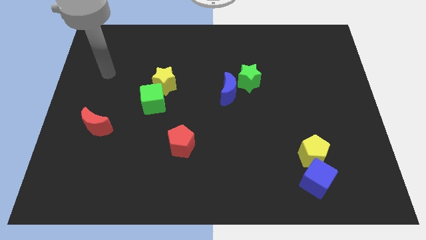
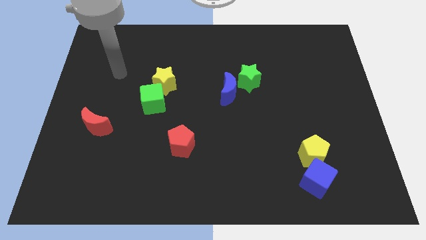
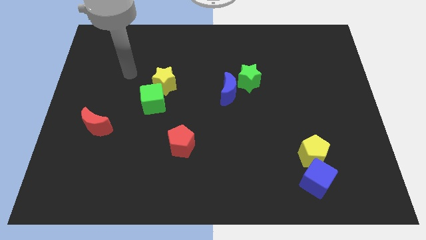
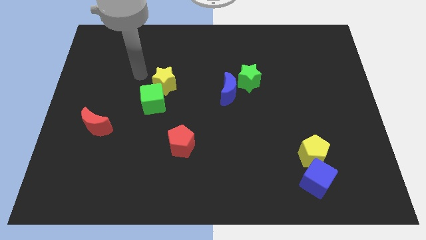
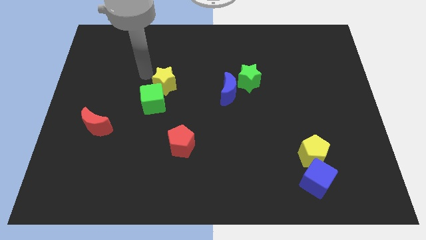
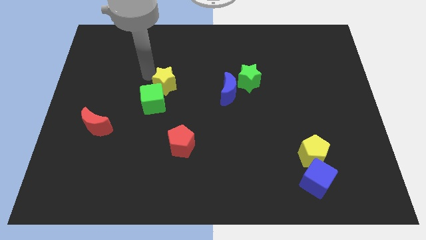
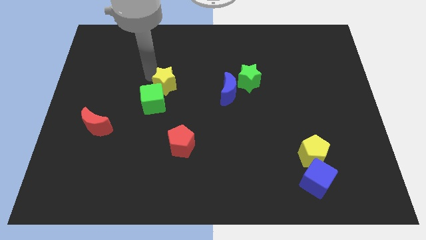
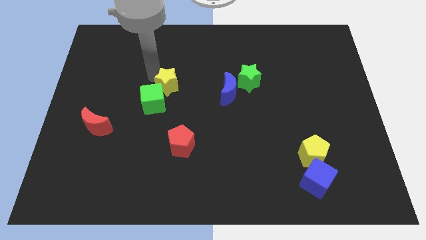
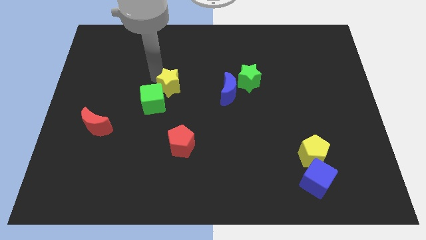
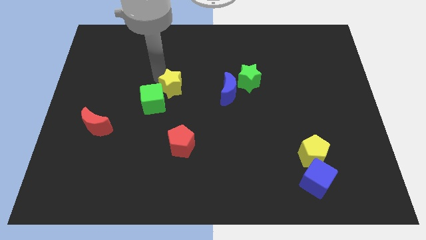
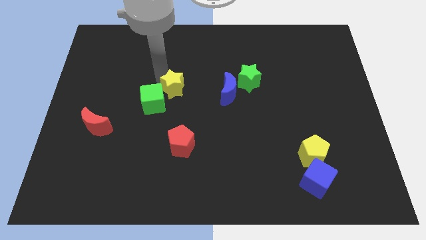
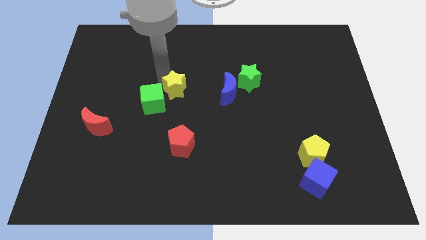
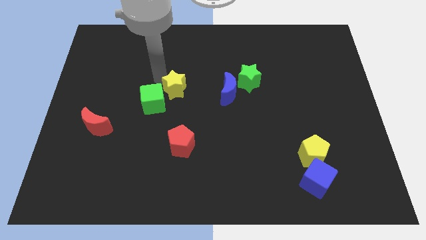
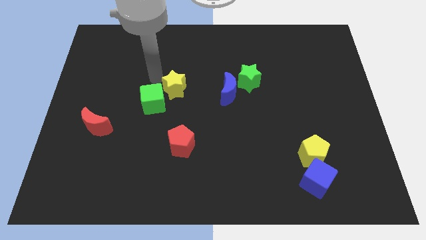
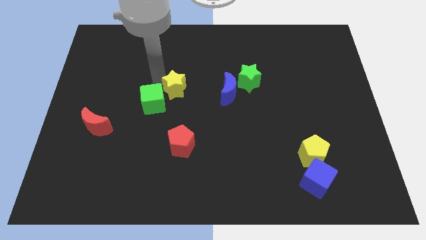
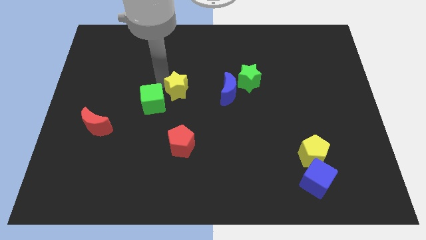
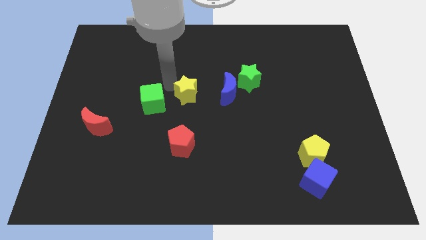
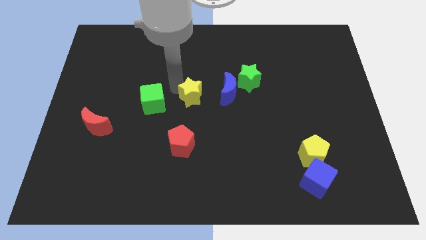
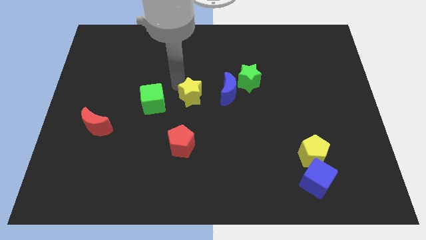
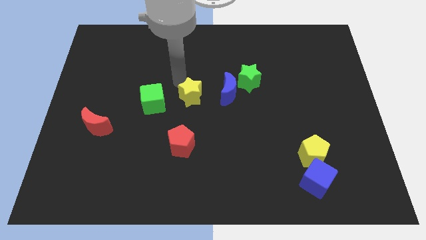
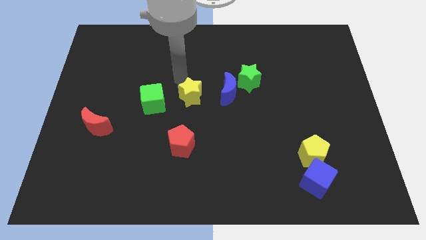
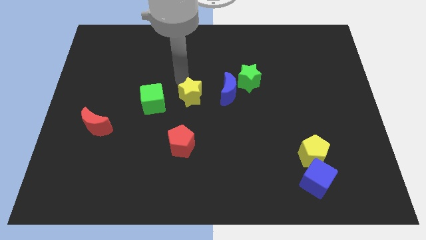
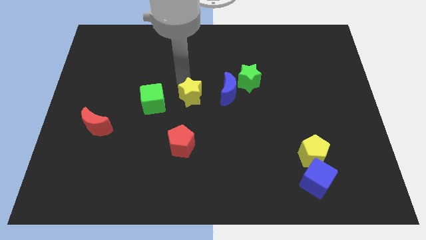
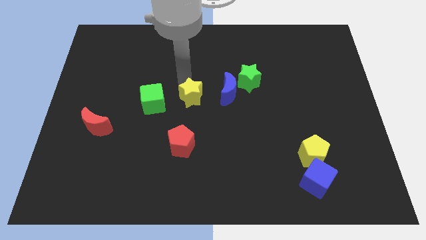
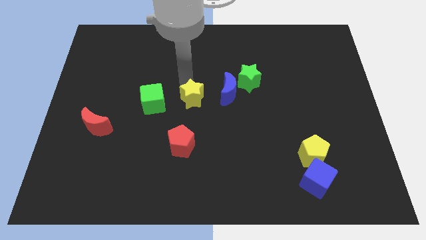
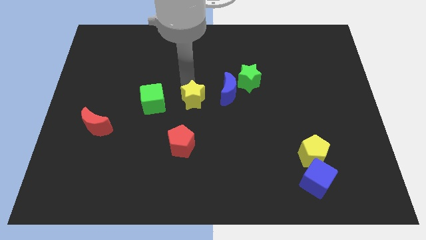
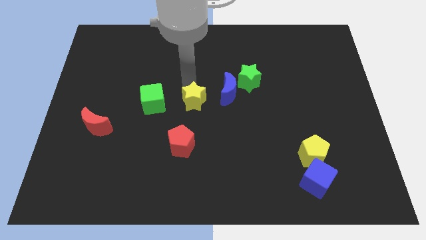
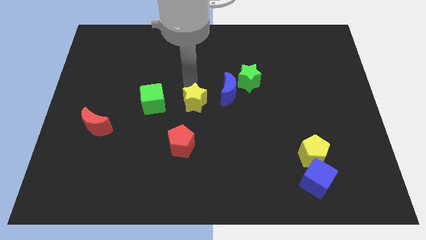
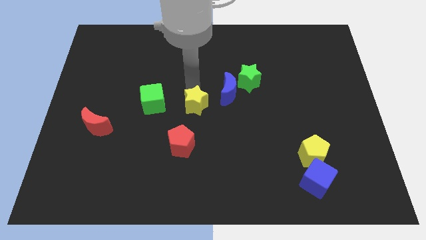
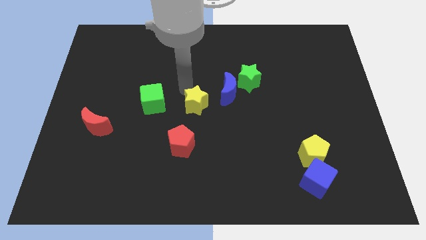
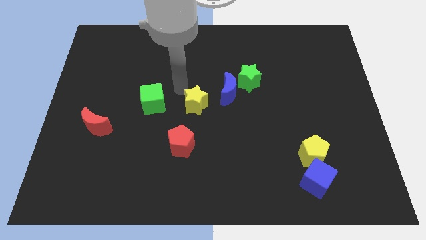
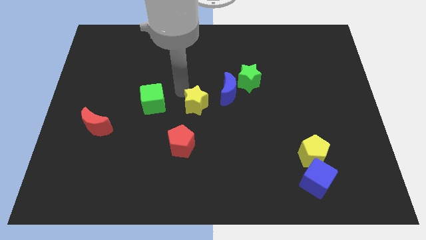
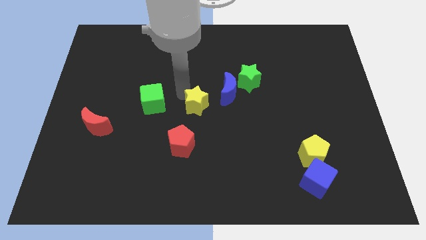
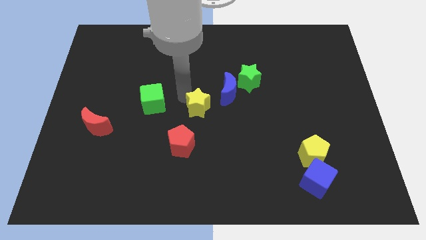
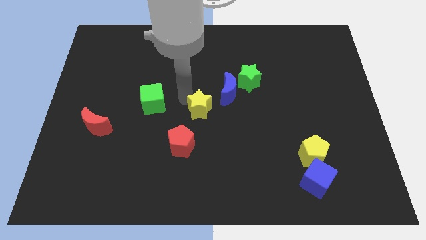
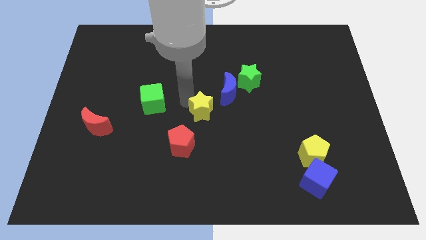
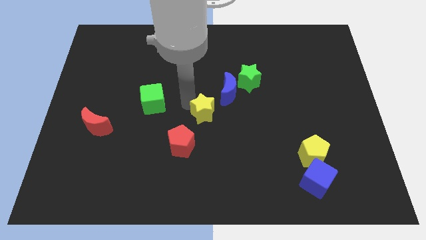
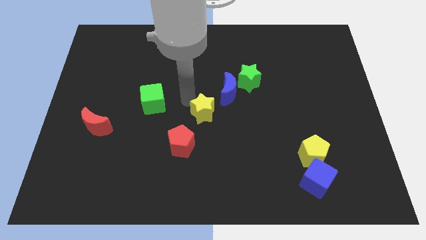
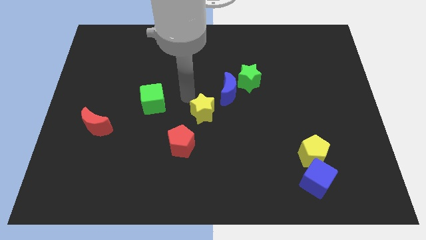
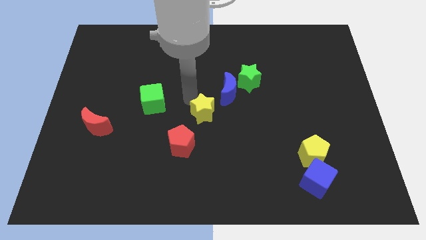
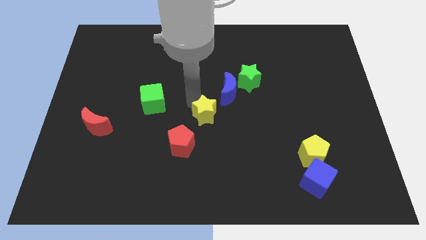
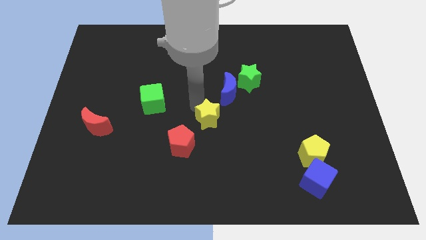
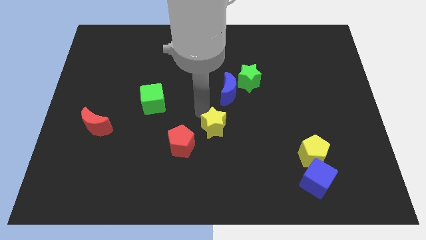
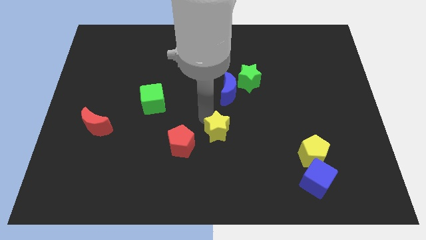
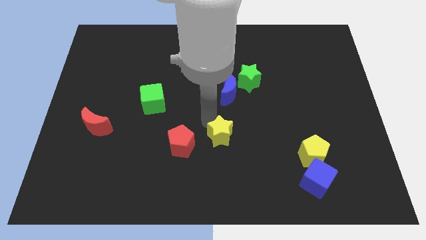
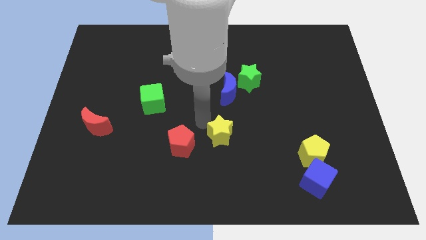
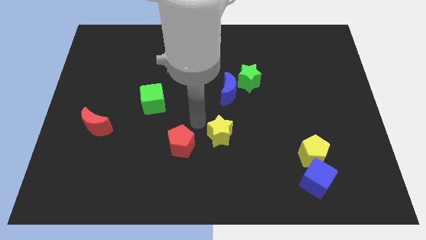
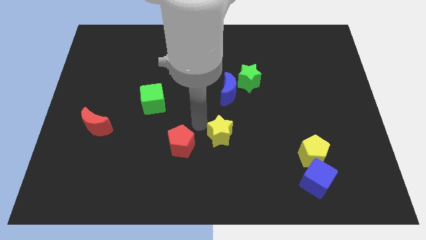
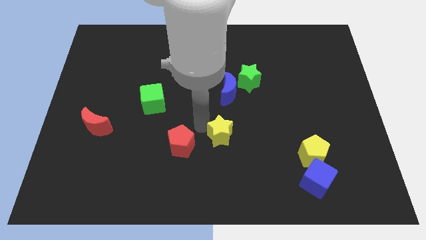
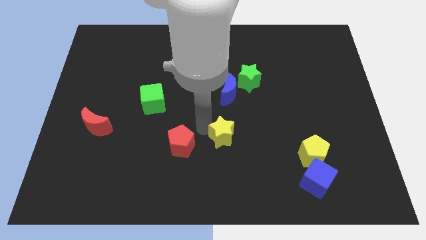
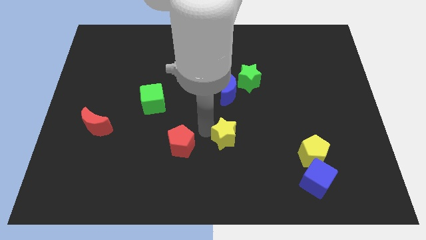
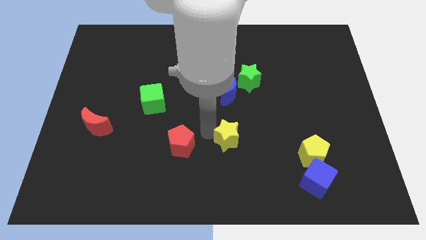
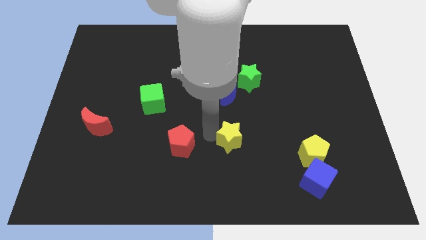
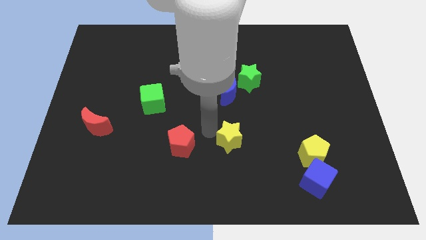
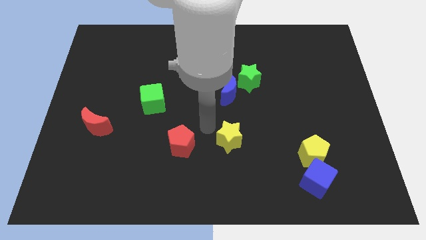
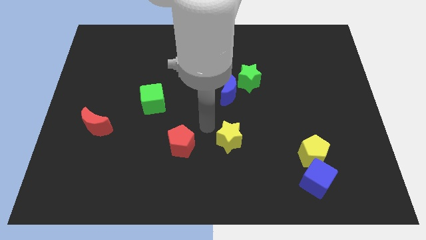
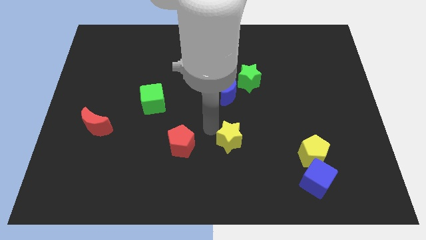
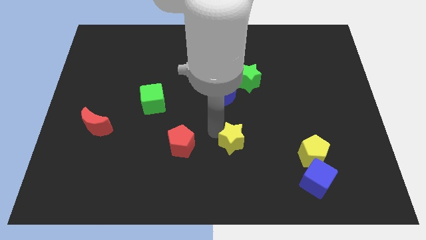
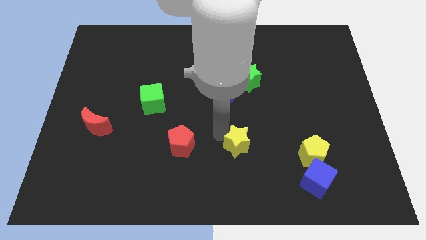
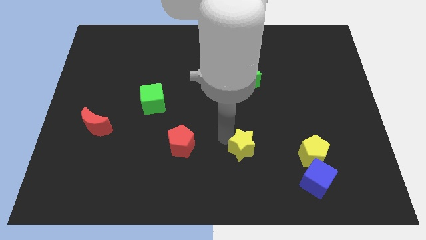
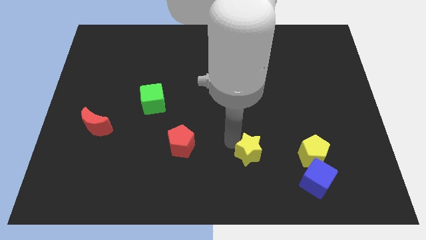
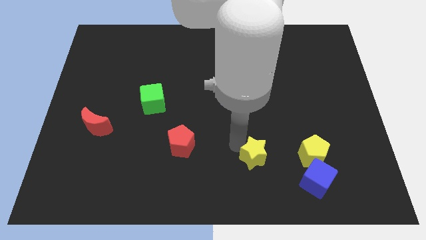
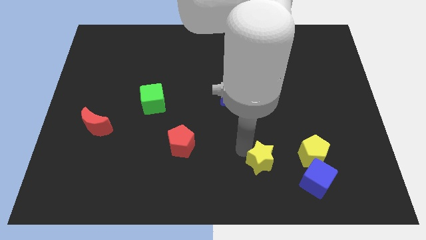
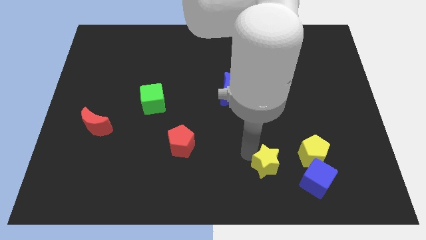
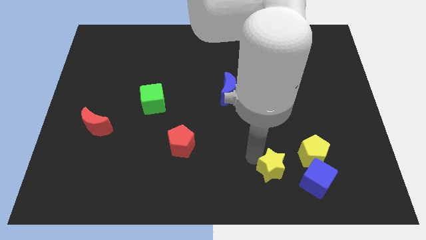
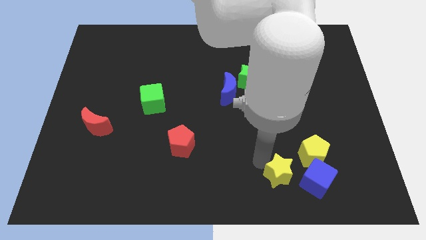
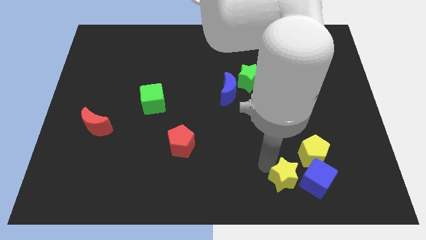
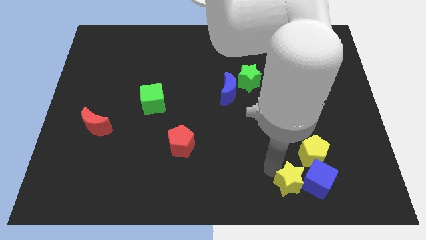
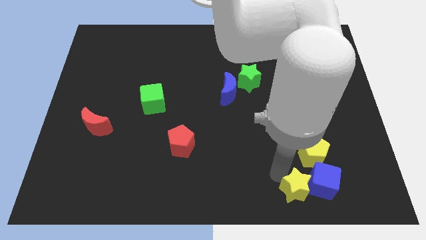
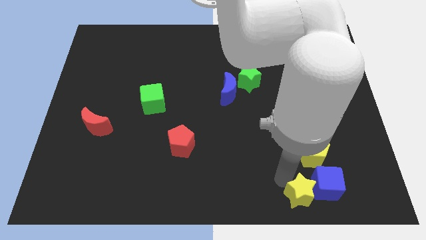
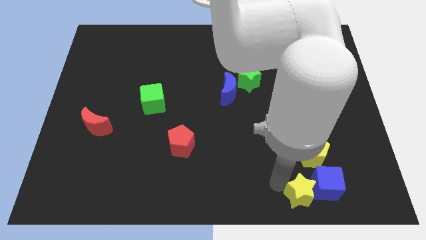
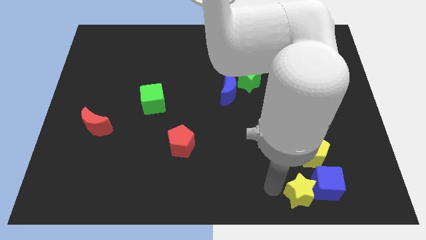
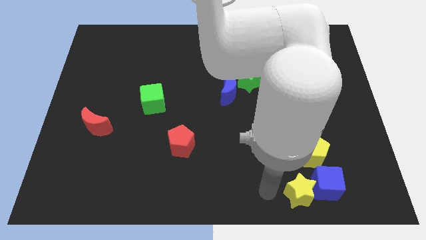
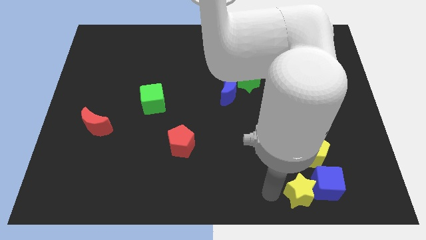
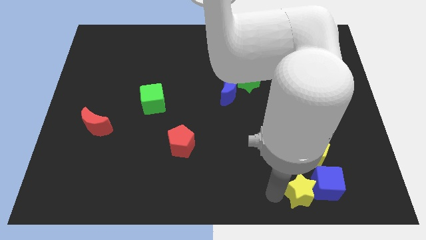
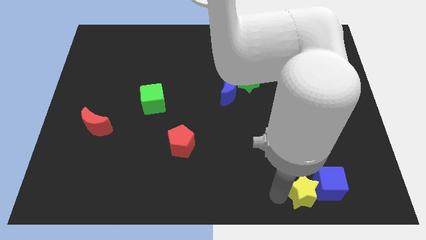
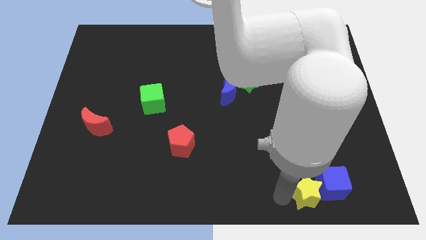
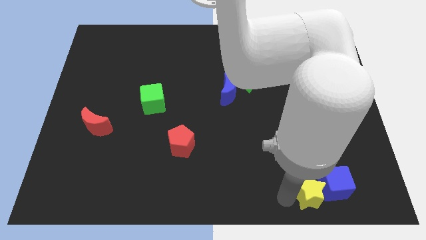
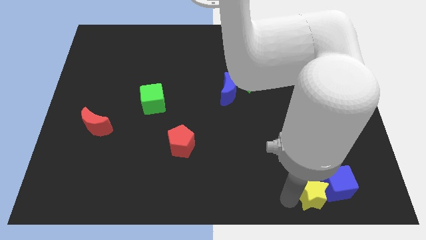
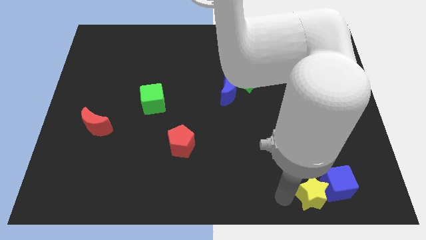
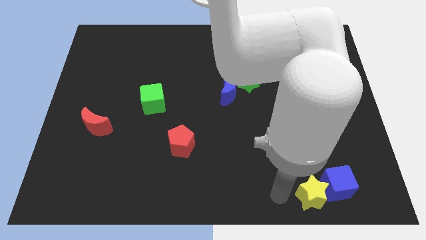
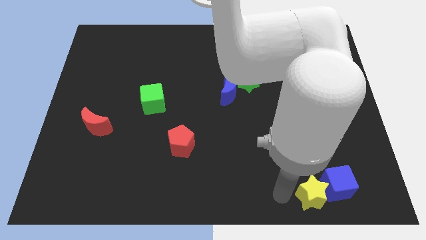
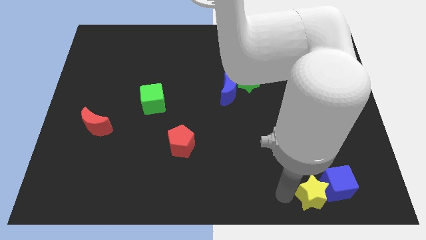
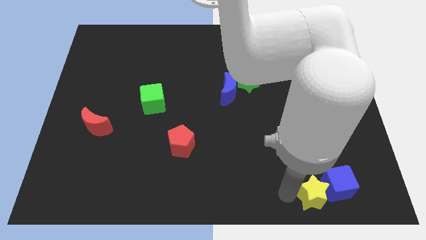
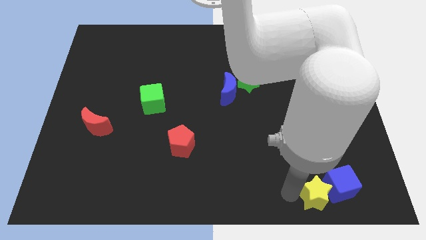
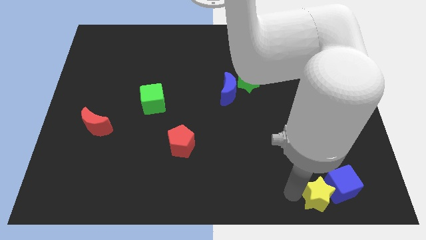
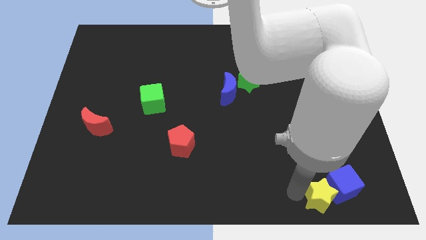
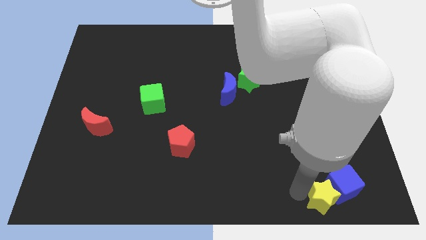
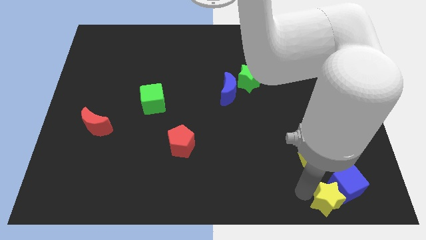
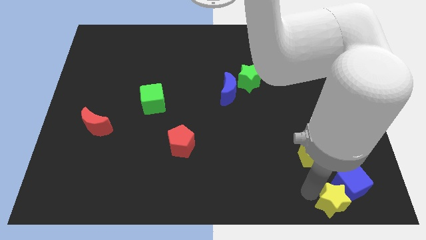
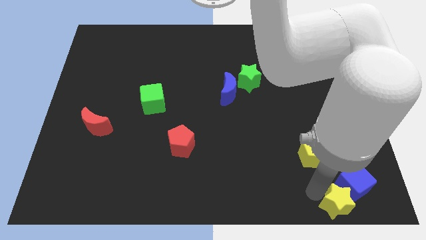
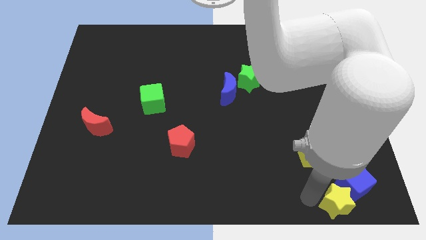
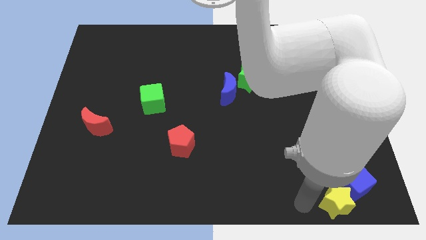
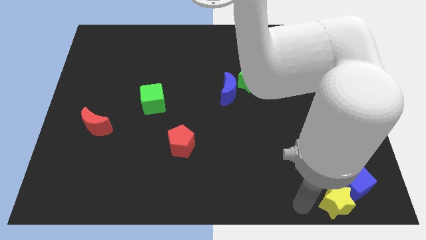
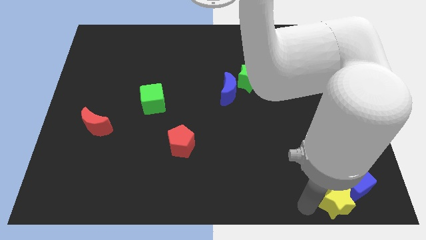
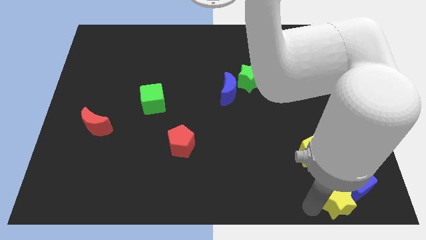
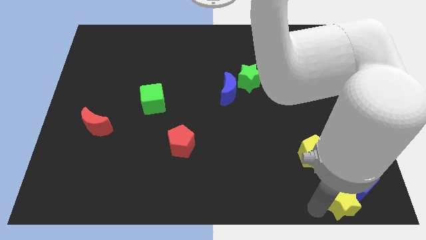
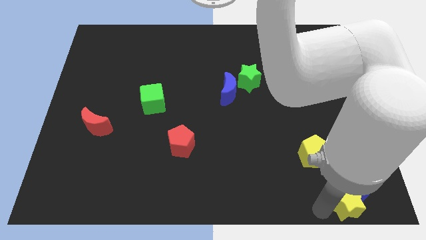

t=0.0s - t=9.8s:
move the yellow star to the bottom right of the board
